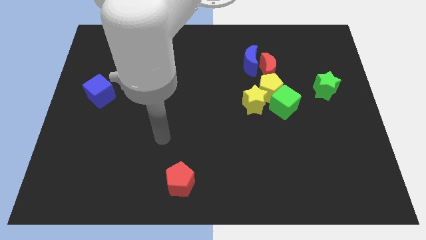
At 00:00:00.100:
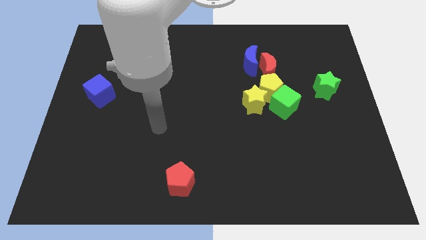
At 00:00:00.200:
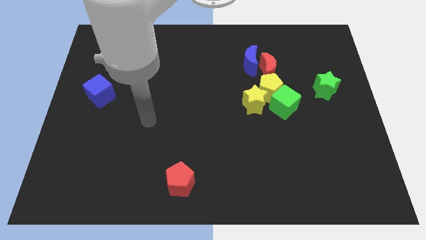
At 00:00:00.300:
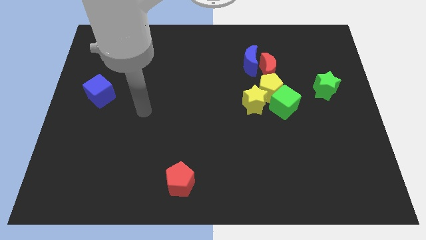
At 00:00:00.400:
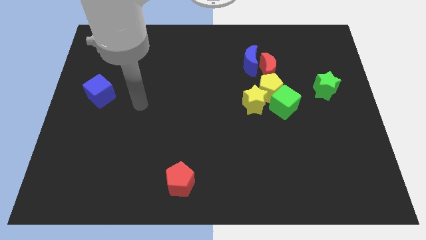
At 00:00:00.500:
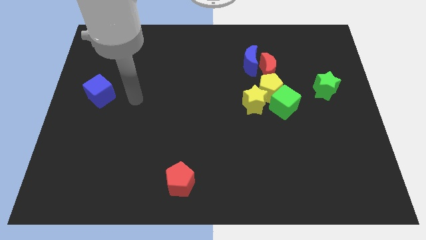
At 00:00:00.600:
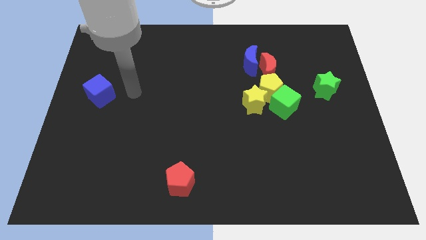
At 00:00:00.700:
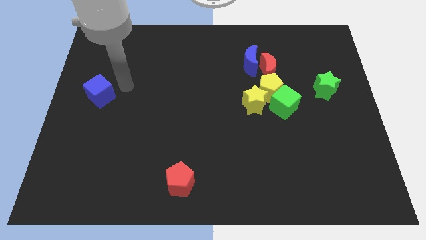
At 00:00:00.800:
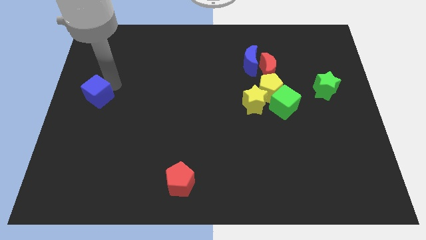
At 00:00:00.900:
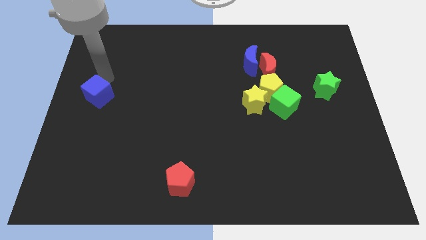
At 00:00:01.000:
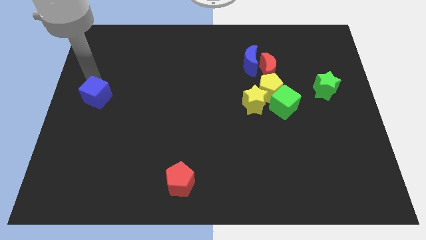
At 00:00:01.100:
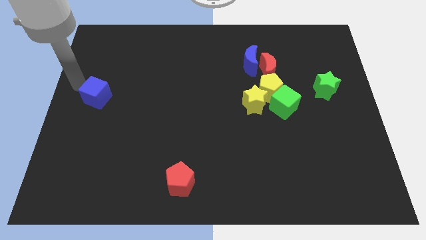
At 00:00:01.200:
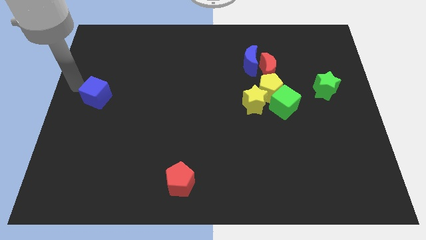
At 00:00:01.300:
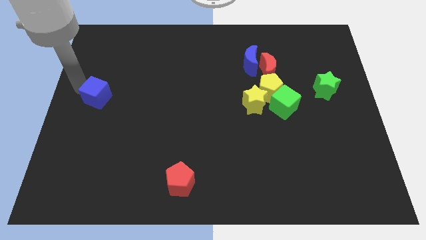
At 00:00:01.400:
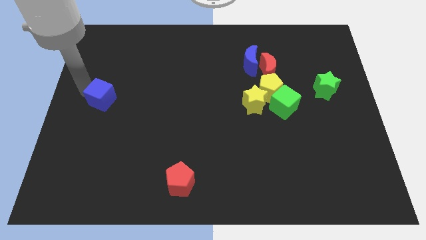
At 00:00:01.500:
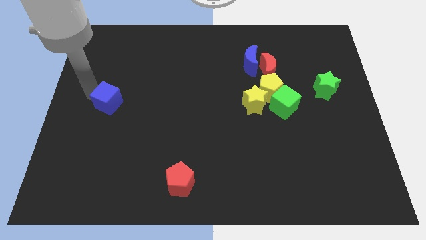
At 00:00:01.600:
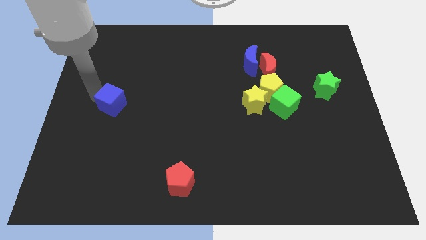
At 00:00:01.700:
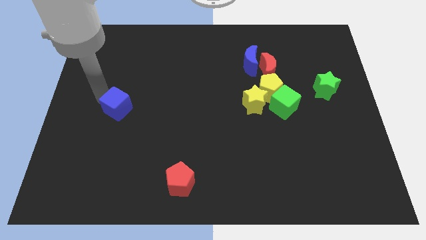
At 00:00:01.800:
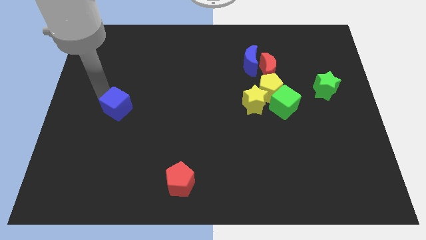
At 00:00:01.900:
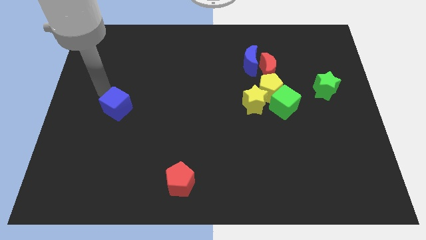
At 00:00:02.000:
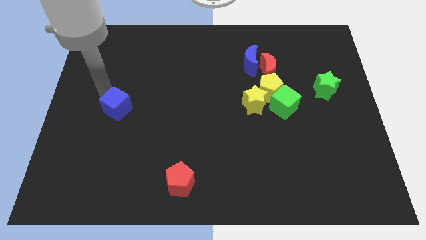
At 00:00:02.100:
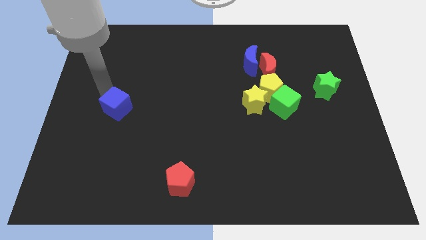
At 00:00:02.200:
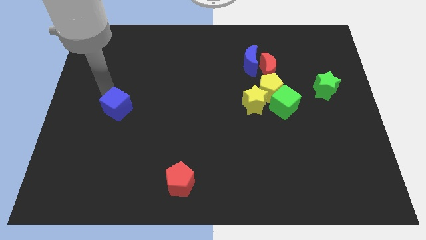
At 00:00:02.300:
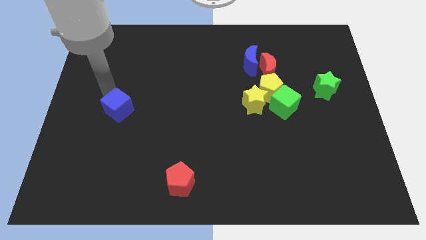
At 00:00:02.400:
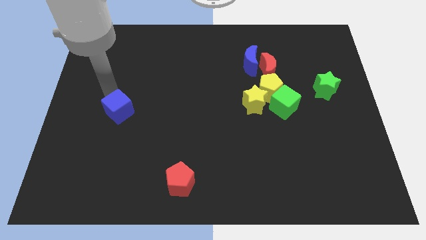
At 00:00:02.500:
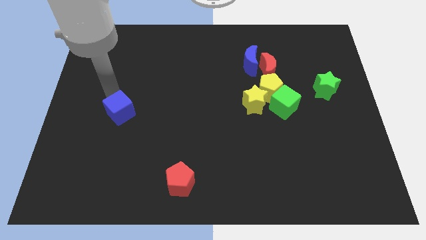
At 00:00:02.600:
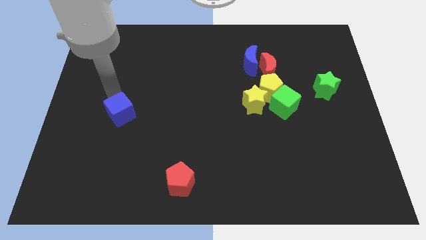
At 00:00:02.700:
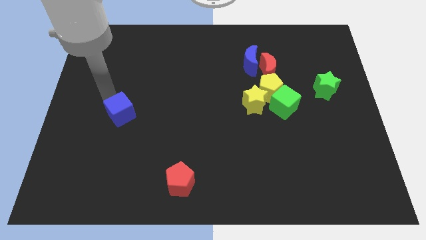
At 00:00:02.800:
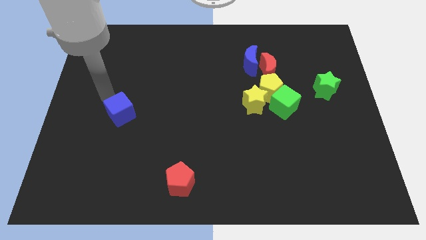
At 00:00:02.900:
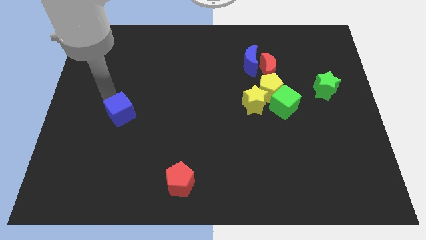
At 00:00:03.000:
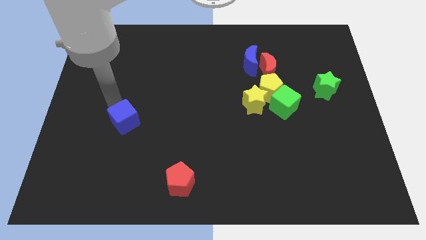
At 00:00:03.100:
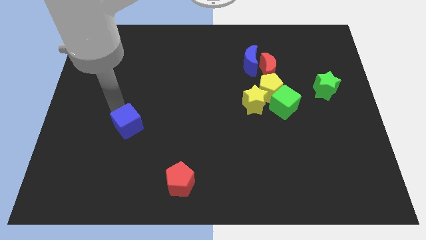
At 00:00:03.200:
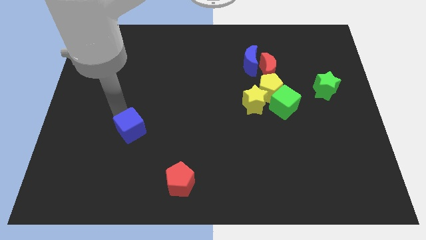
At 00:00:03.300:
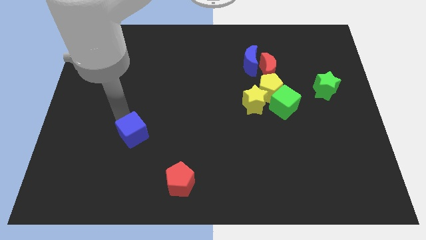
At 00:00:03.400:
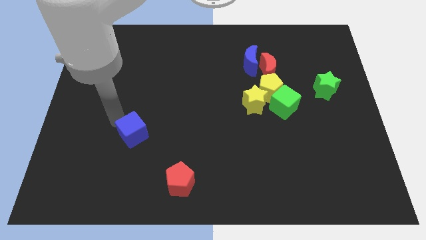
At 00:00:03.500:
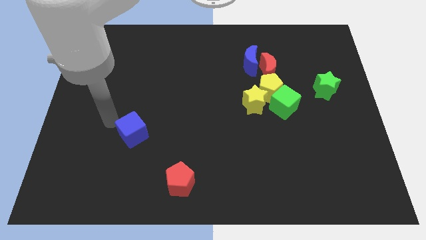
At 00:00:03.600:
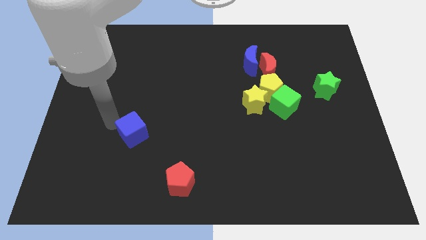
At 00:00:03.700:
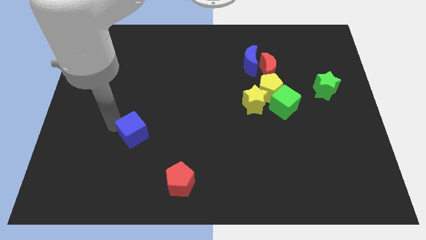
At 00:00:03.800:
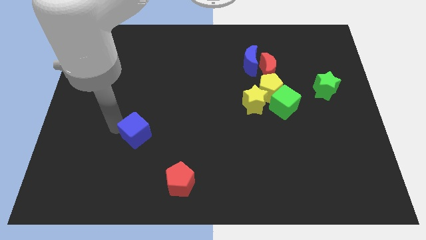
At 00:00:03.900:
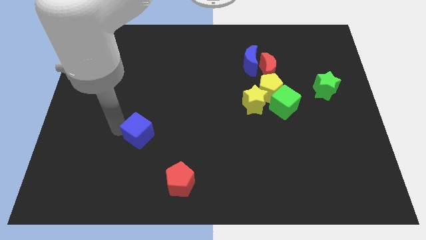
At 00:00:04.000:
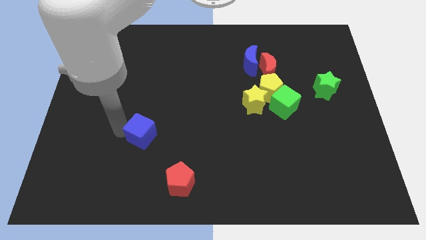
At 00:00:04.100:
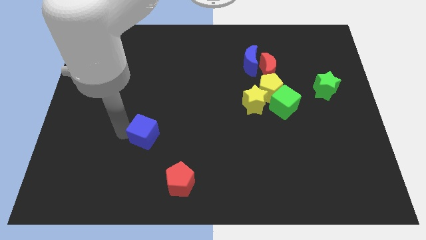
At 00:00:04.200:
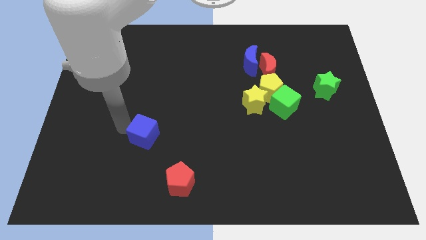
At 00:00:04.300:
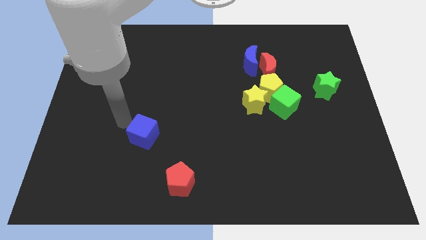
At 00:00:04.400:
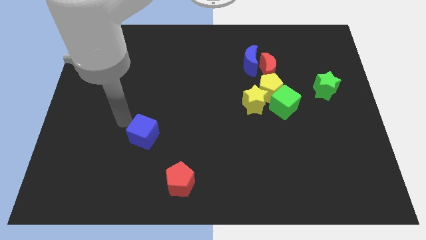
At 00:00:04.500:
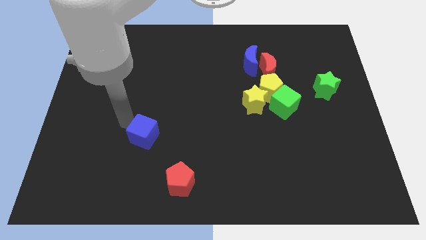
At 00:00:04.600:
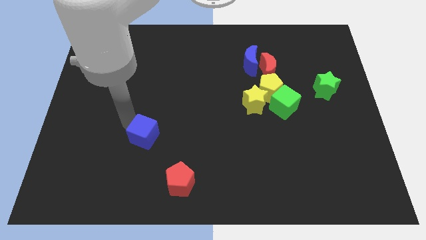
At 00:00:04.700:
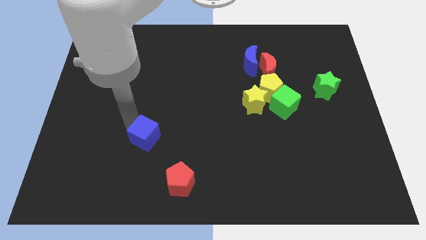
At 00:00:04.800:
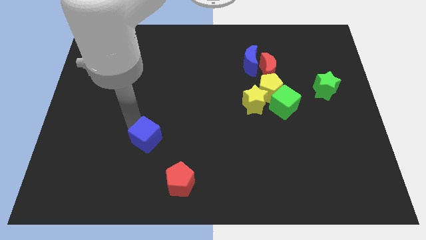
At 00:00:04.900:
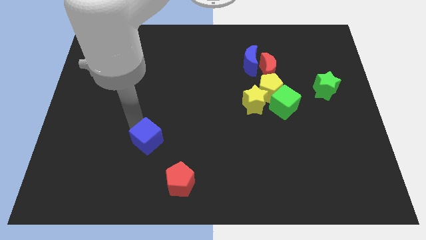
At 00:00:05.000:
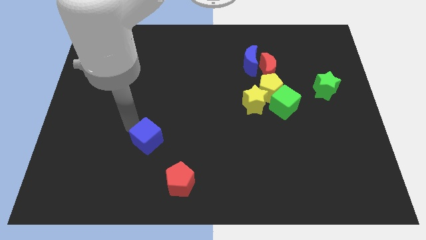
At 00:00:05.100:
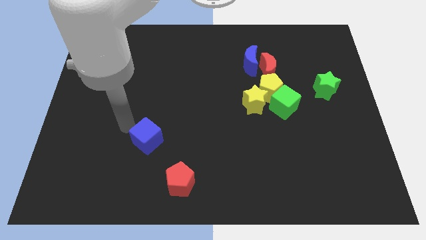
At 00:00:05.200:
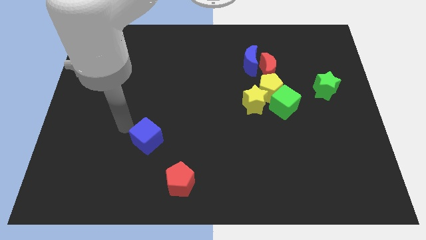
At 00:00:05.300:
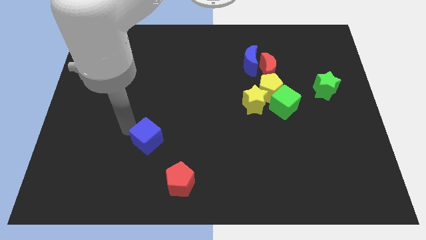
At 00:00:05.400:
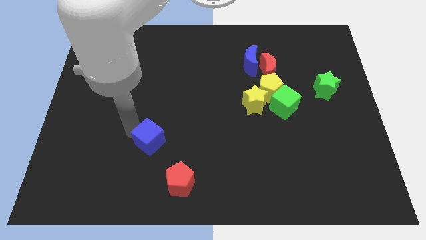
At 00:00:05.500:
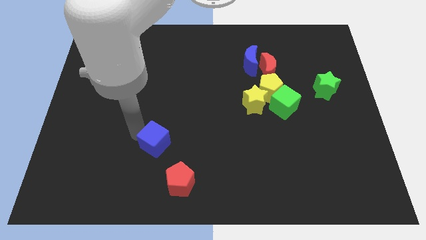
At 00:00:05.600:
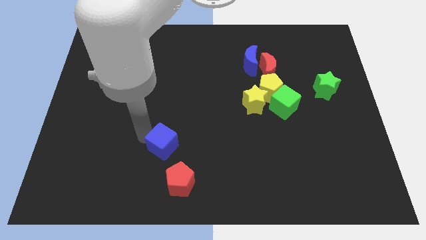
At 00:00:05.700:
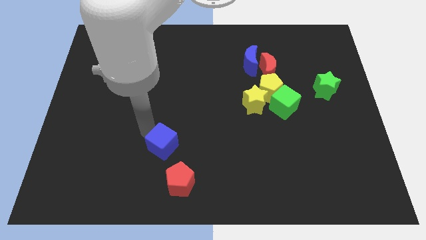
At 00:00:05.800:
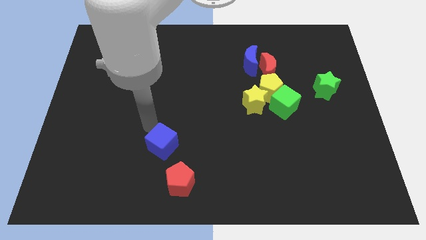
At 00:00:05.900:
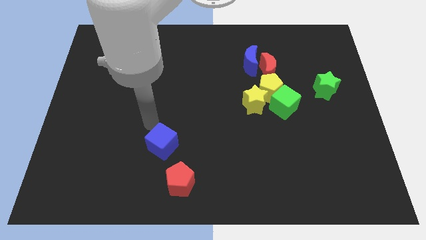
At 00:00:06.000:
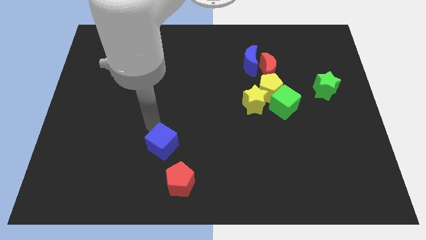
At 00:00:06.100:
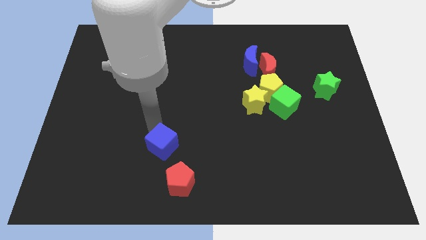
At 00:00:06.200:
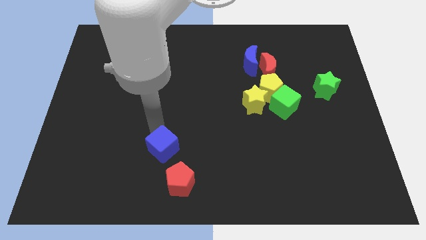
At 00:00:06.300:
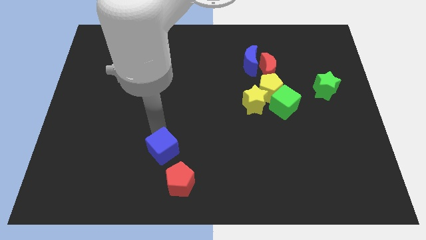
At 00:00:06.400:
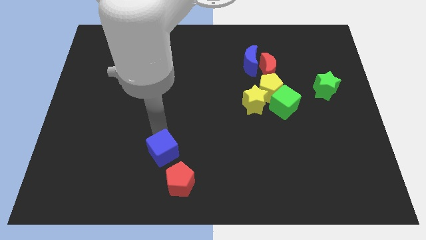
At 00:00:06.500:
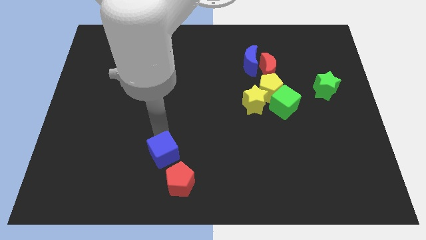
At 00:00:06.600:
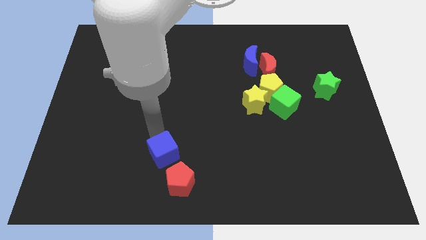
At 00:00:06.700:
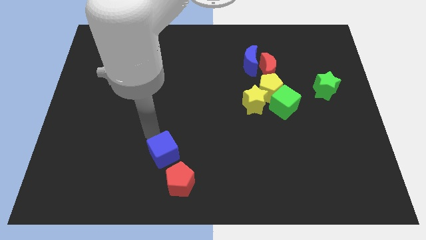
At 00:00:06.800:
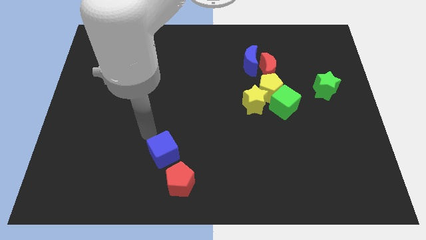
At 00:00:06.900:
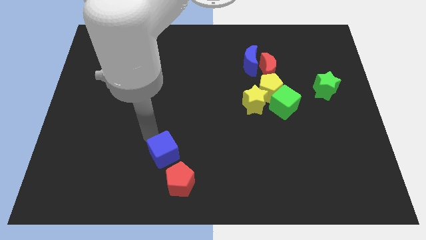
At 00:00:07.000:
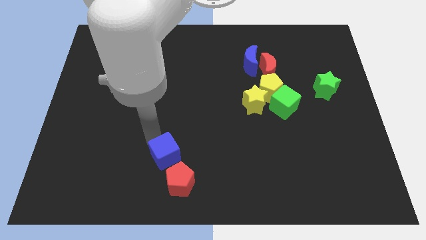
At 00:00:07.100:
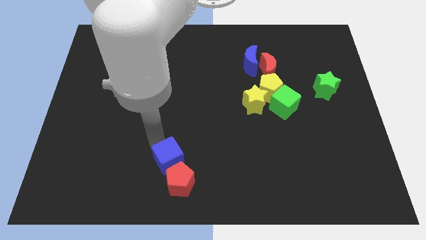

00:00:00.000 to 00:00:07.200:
move the blue cube towards the red pentagon
